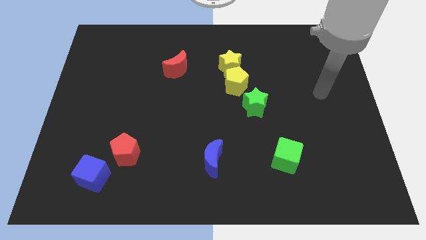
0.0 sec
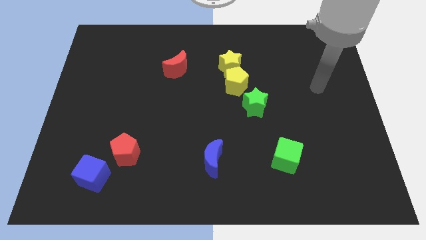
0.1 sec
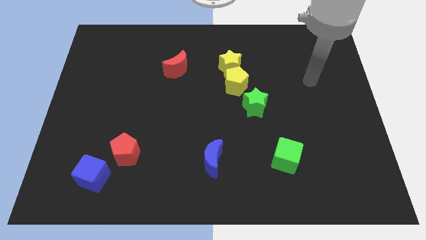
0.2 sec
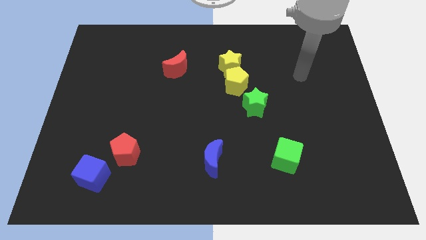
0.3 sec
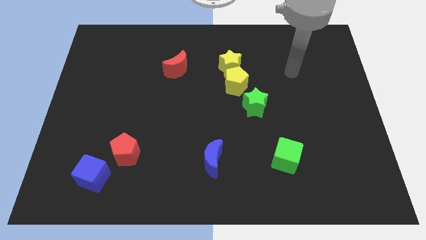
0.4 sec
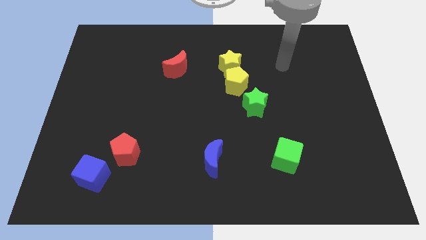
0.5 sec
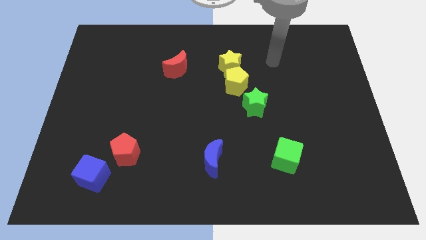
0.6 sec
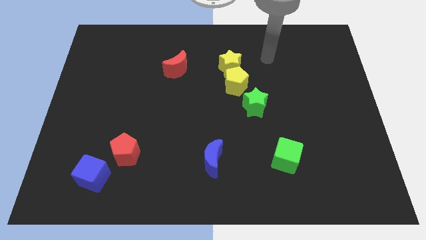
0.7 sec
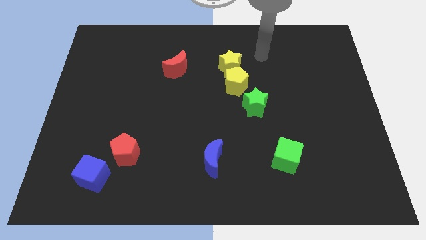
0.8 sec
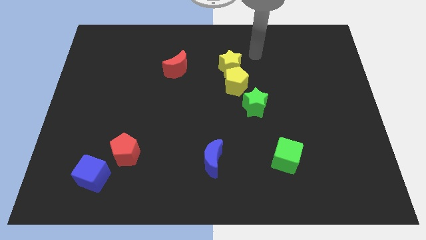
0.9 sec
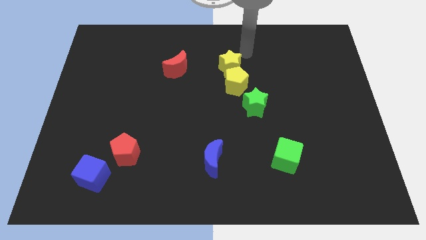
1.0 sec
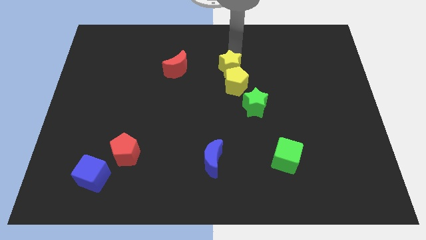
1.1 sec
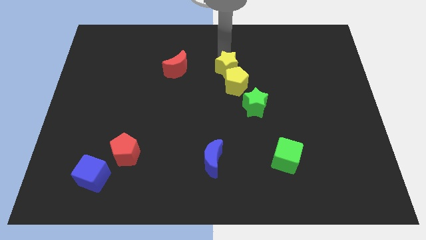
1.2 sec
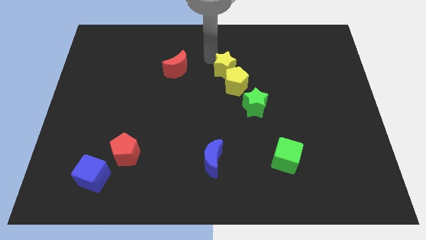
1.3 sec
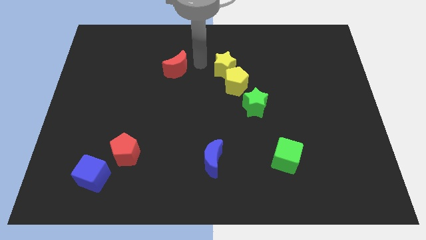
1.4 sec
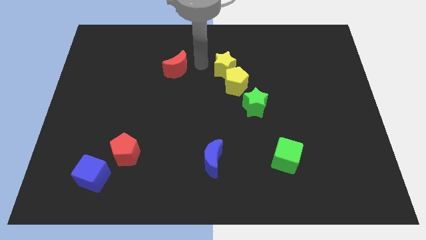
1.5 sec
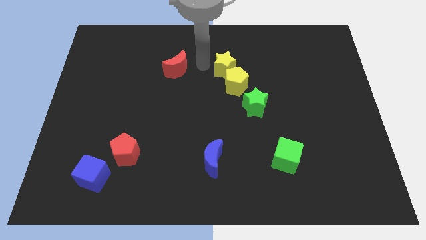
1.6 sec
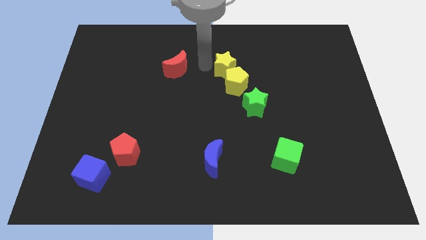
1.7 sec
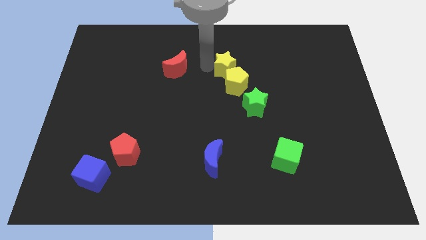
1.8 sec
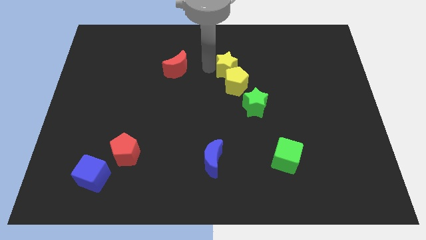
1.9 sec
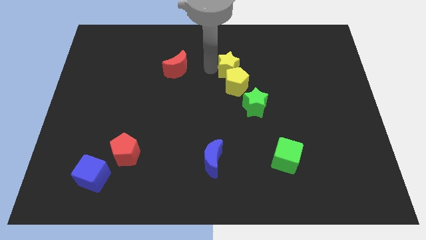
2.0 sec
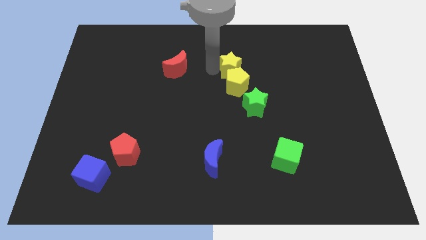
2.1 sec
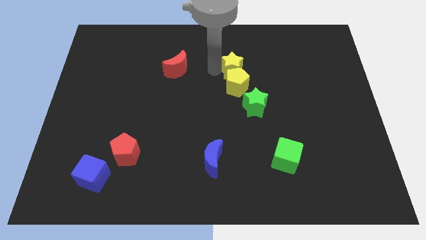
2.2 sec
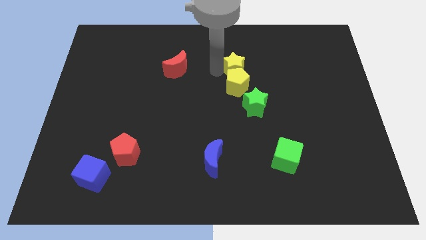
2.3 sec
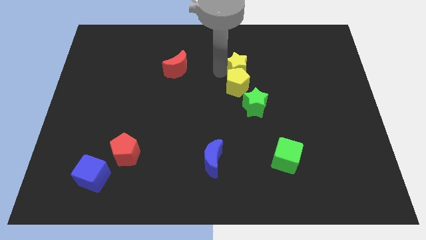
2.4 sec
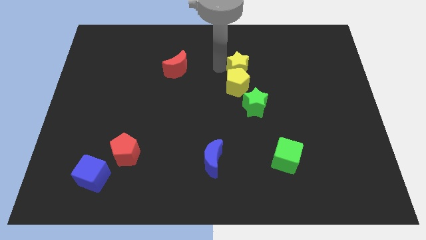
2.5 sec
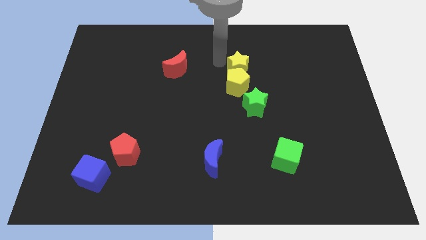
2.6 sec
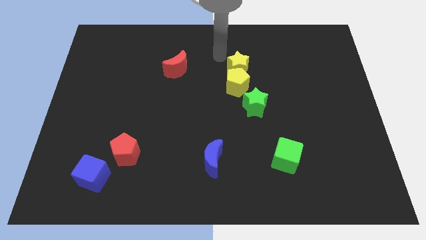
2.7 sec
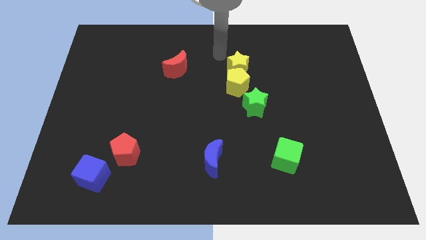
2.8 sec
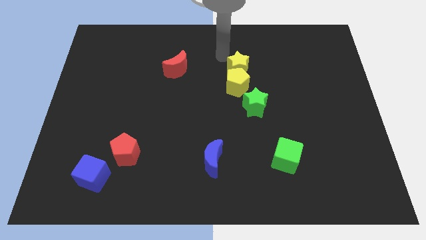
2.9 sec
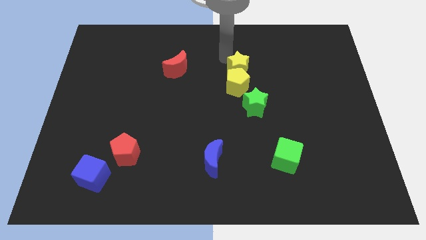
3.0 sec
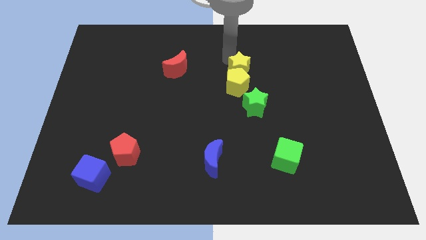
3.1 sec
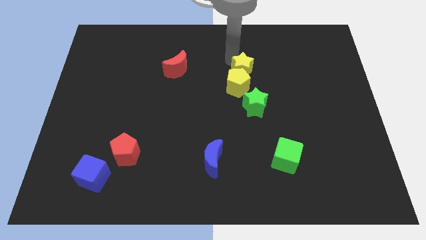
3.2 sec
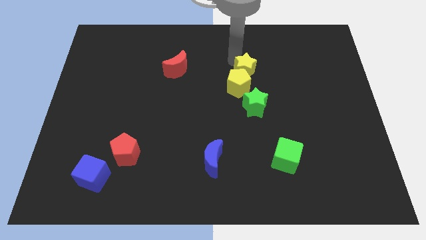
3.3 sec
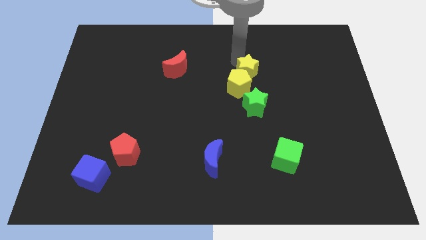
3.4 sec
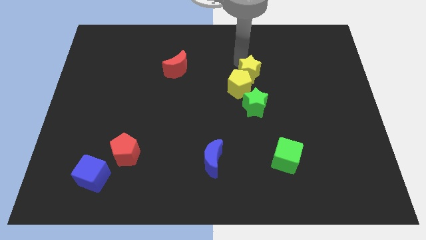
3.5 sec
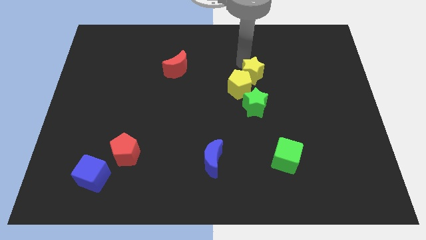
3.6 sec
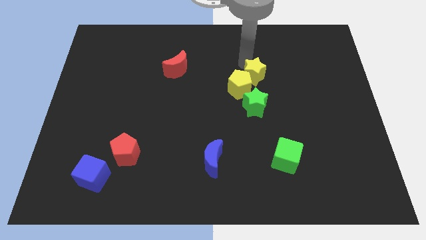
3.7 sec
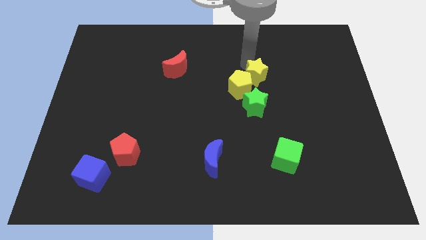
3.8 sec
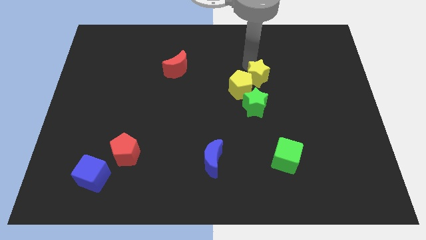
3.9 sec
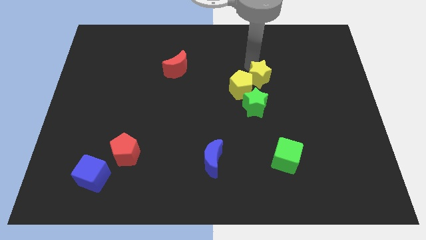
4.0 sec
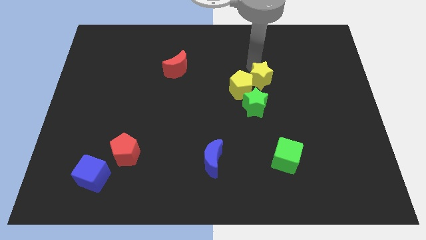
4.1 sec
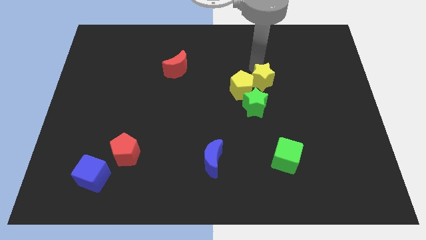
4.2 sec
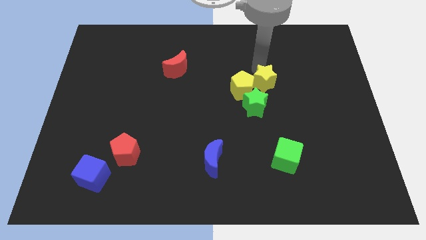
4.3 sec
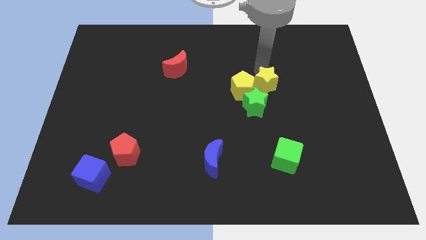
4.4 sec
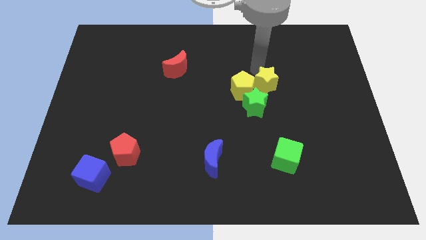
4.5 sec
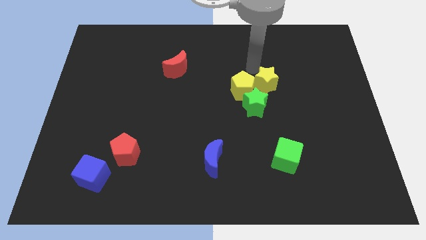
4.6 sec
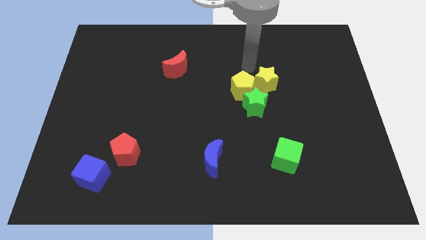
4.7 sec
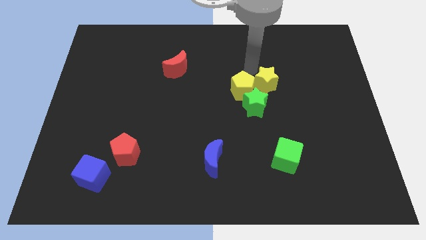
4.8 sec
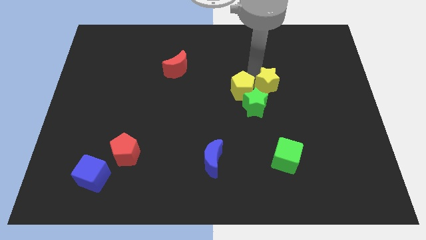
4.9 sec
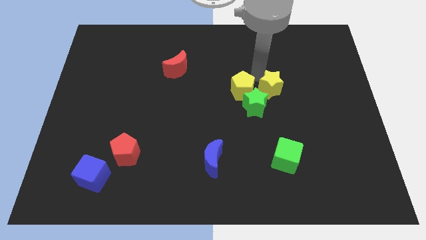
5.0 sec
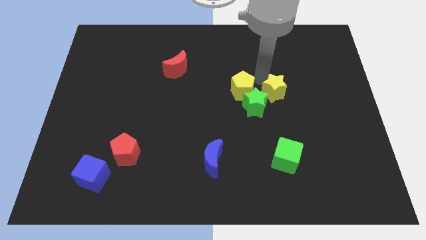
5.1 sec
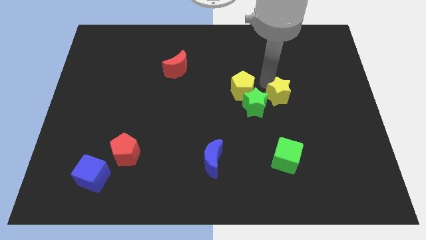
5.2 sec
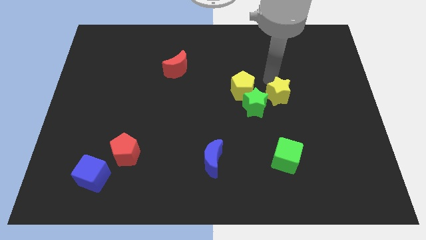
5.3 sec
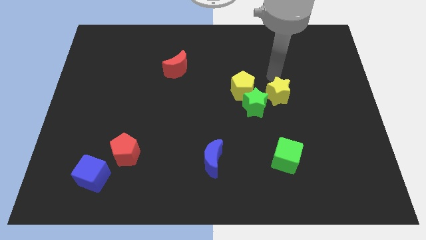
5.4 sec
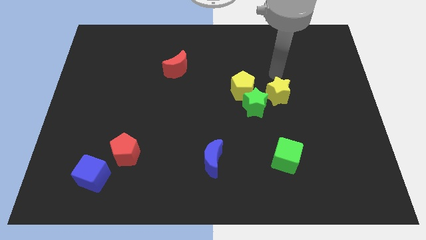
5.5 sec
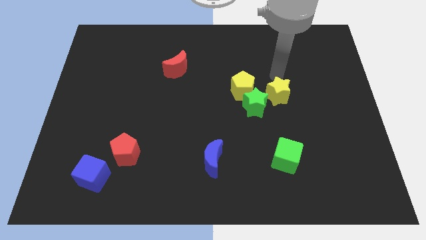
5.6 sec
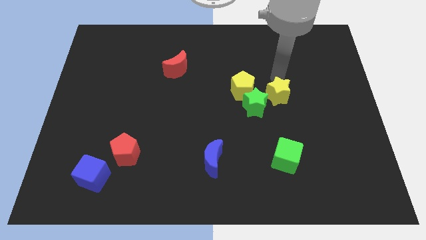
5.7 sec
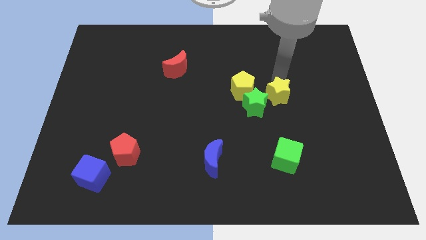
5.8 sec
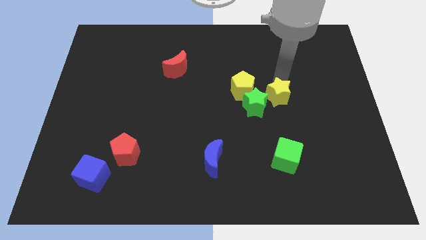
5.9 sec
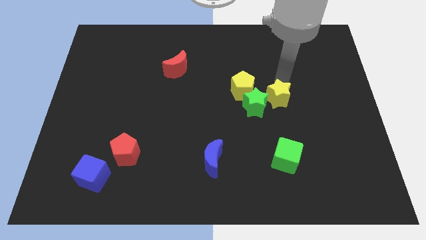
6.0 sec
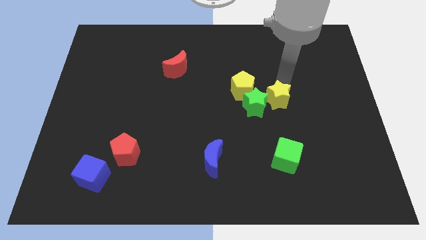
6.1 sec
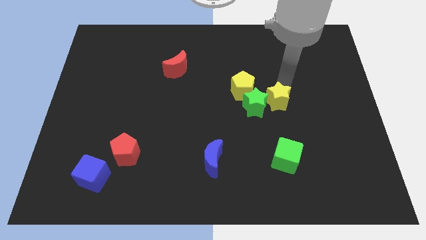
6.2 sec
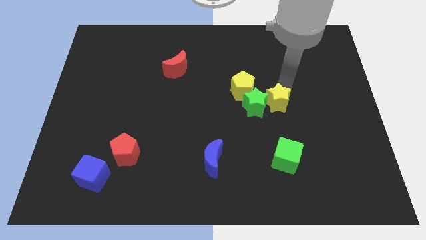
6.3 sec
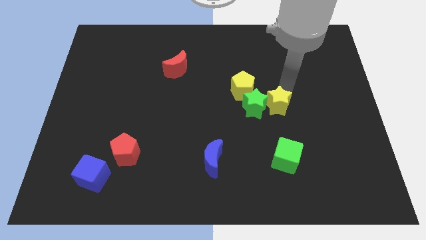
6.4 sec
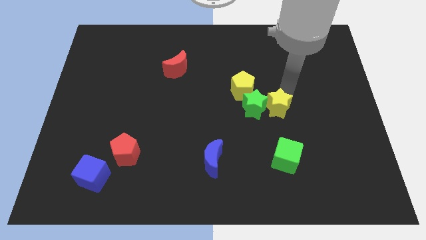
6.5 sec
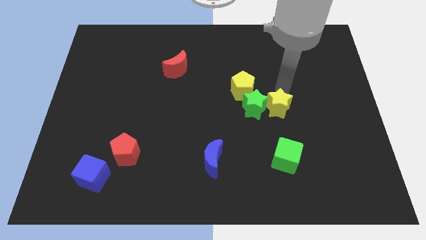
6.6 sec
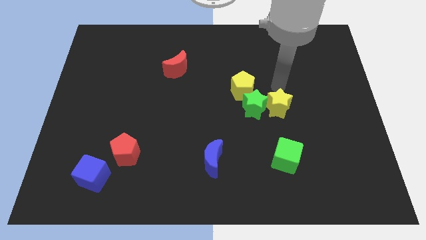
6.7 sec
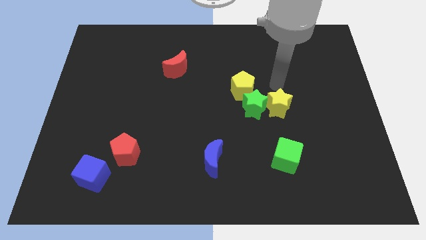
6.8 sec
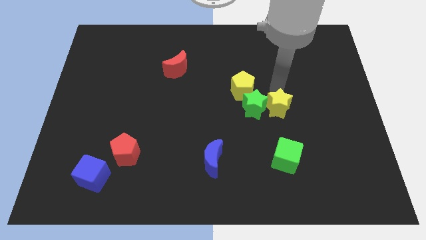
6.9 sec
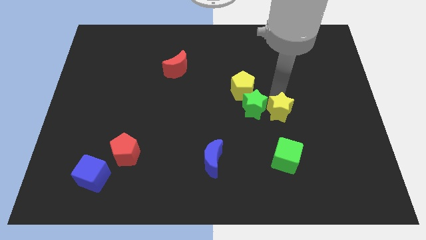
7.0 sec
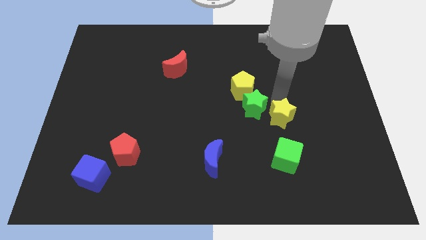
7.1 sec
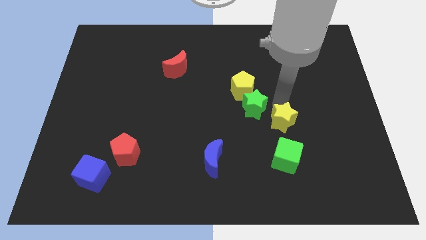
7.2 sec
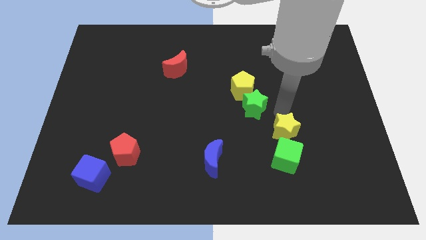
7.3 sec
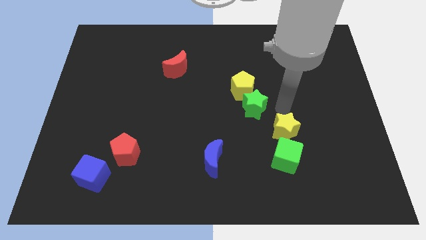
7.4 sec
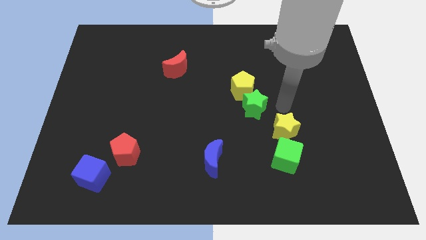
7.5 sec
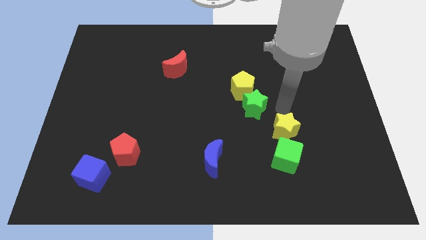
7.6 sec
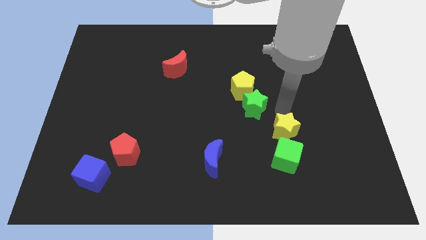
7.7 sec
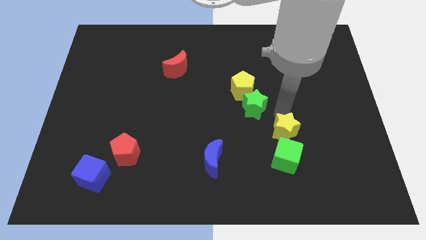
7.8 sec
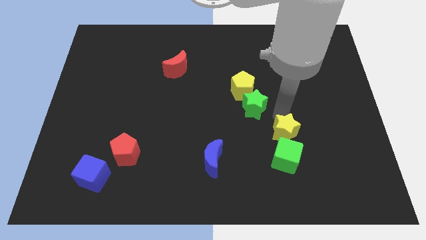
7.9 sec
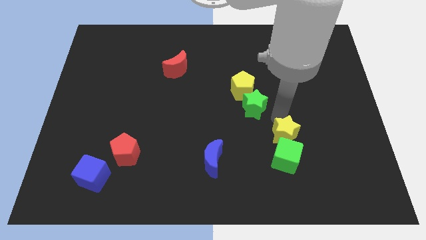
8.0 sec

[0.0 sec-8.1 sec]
slide the yellow star to the green cube
